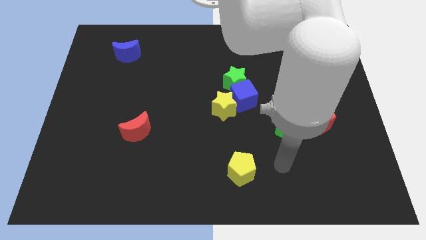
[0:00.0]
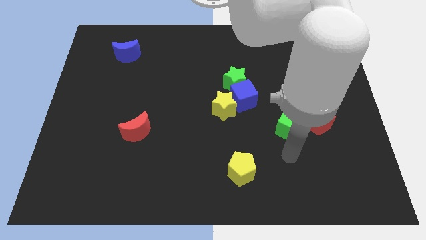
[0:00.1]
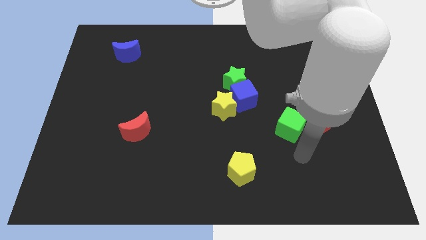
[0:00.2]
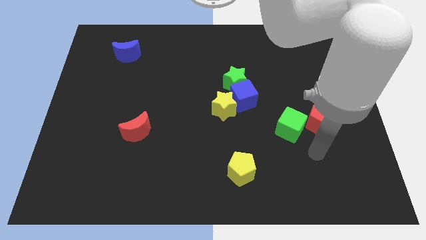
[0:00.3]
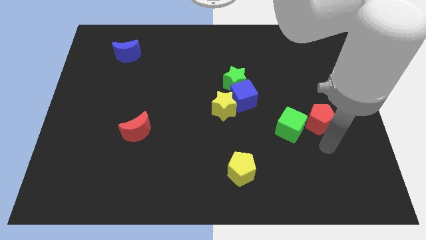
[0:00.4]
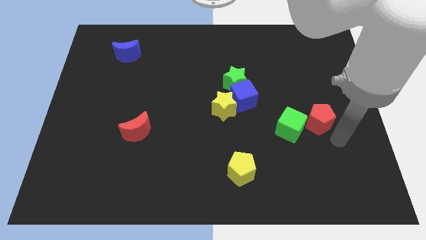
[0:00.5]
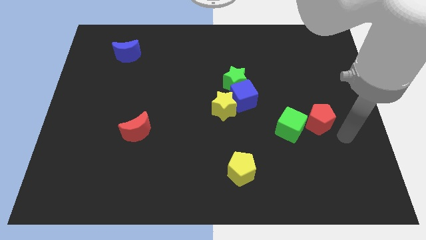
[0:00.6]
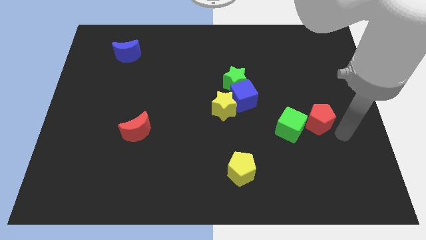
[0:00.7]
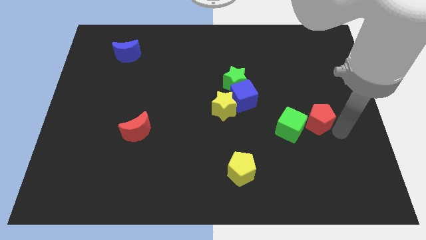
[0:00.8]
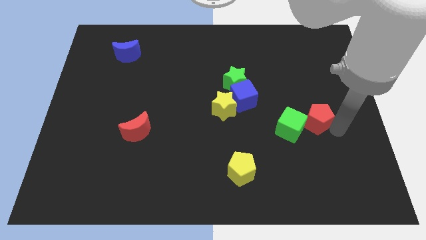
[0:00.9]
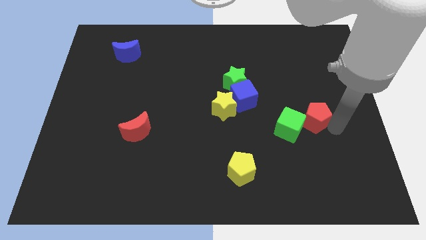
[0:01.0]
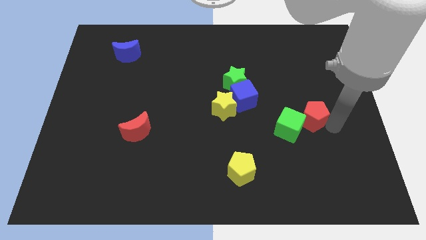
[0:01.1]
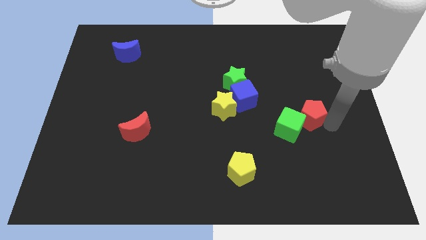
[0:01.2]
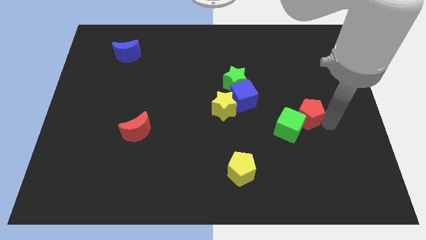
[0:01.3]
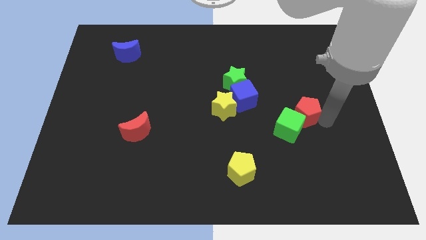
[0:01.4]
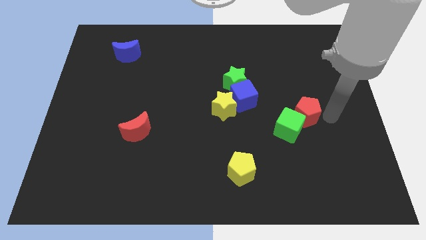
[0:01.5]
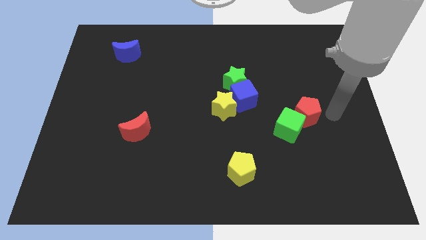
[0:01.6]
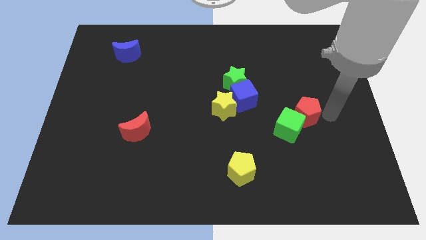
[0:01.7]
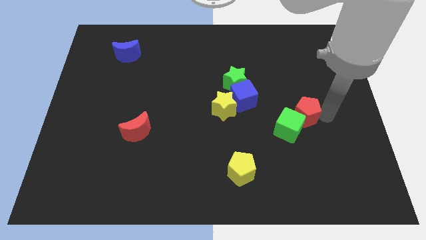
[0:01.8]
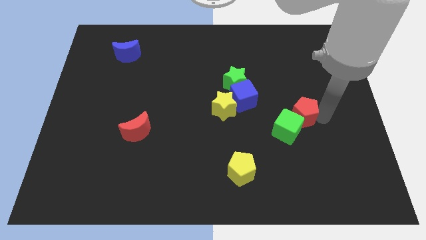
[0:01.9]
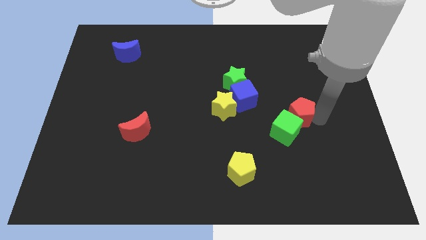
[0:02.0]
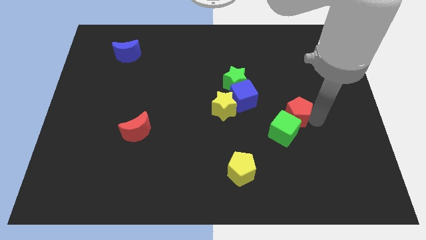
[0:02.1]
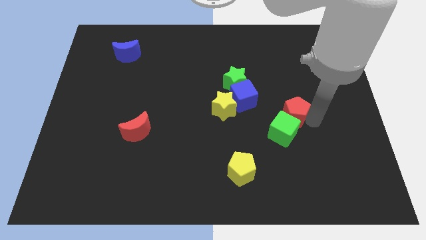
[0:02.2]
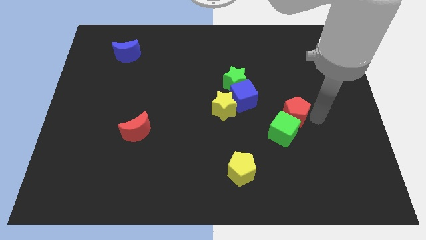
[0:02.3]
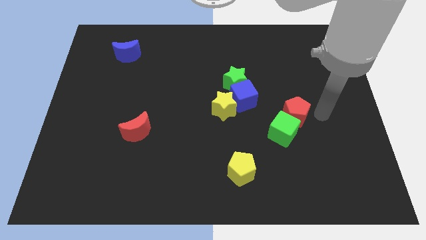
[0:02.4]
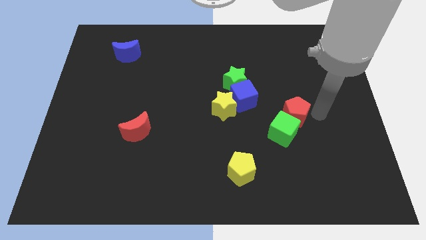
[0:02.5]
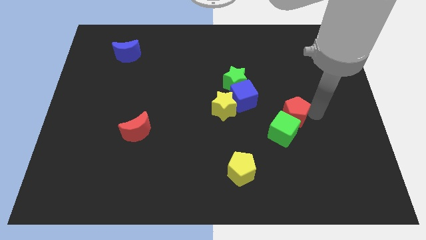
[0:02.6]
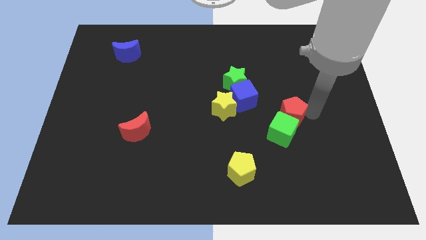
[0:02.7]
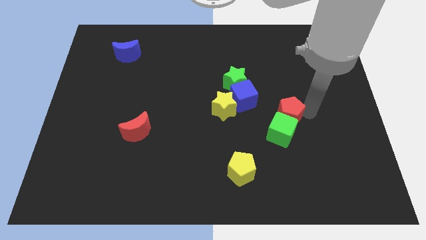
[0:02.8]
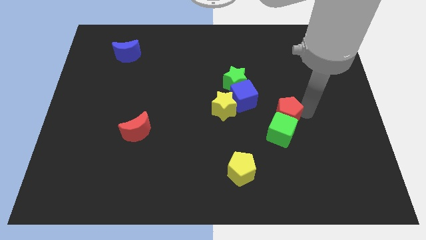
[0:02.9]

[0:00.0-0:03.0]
move the red pentagon a little bit left

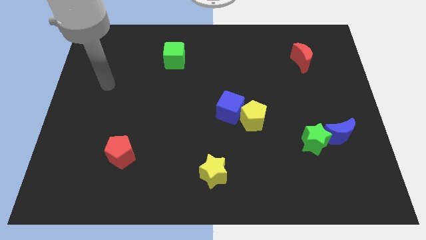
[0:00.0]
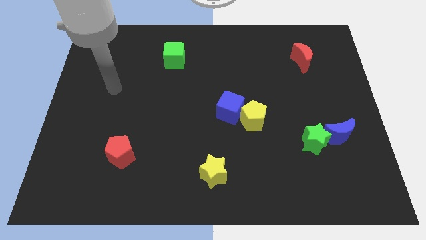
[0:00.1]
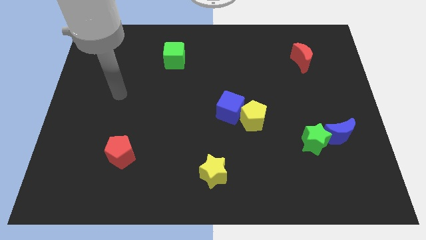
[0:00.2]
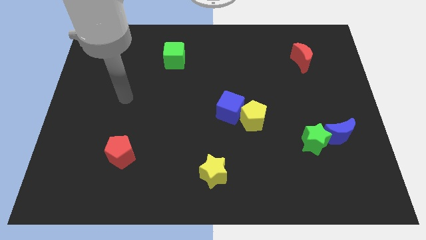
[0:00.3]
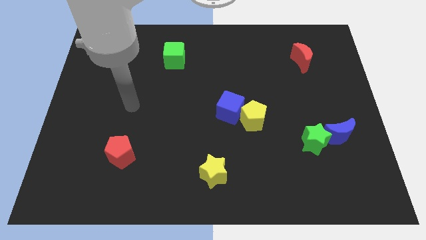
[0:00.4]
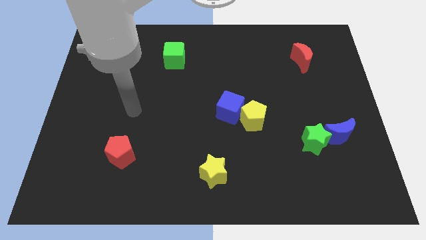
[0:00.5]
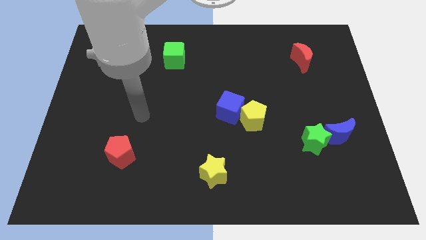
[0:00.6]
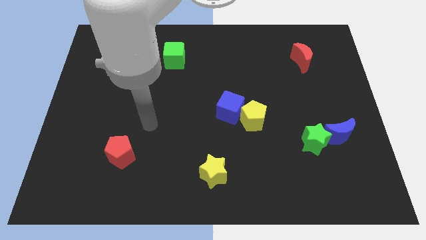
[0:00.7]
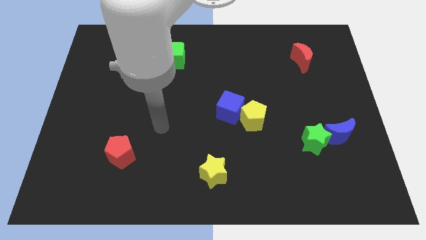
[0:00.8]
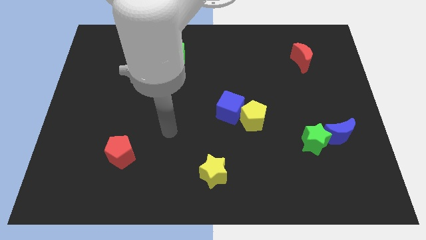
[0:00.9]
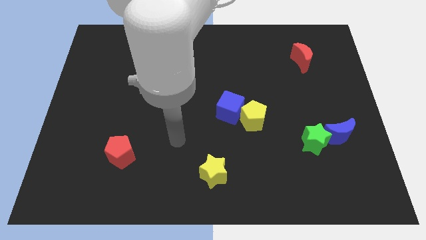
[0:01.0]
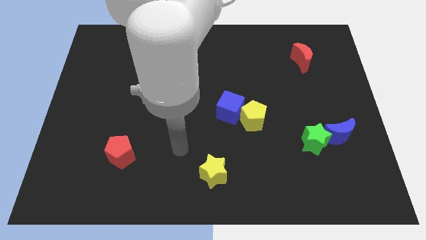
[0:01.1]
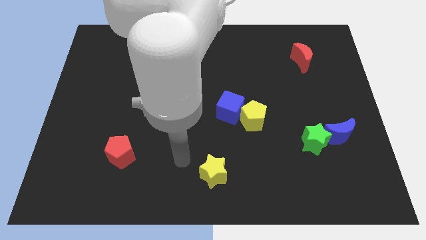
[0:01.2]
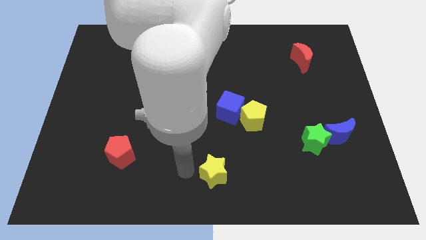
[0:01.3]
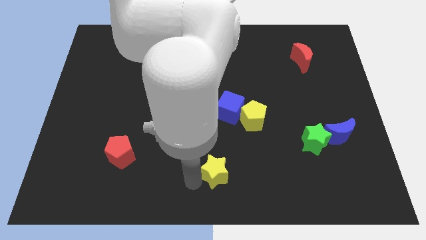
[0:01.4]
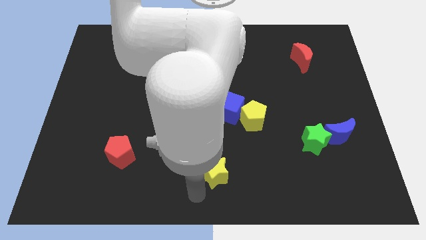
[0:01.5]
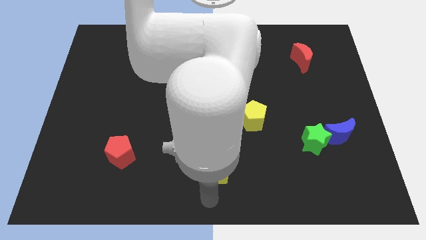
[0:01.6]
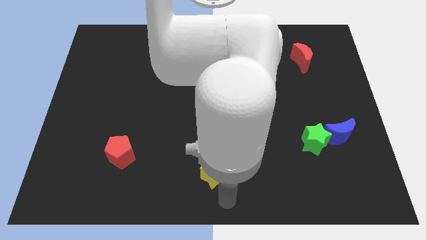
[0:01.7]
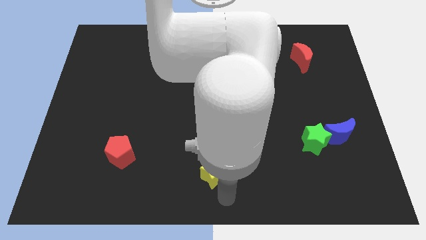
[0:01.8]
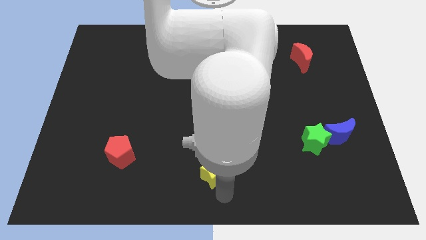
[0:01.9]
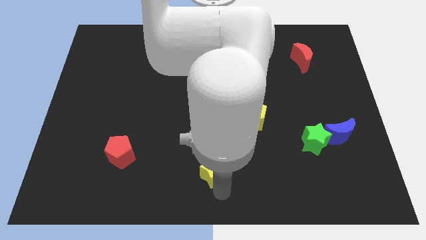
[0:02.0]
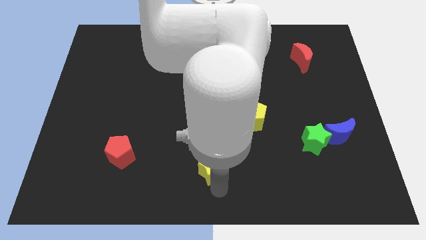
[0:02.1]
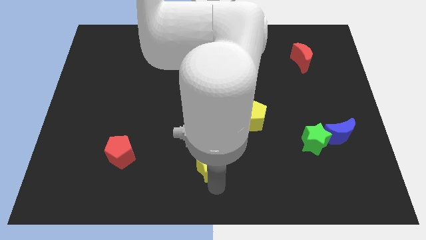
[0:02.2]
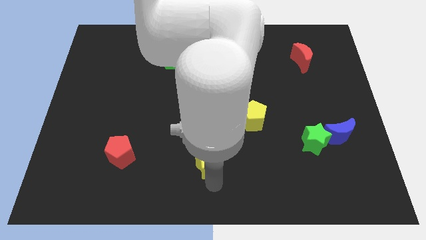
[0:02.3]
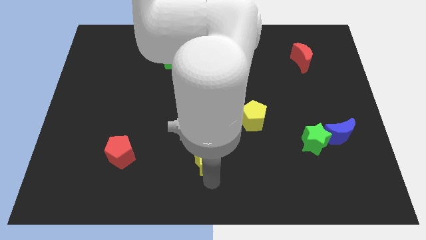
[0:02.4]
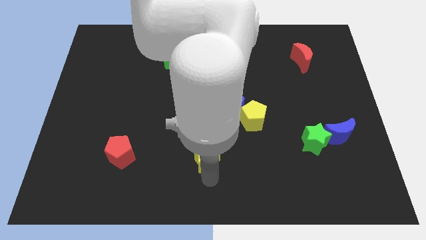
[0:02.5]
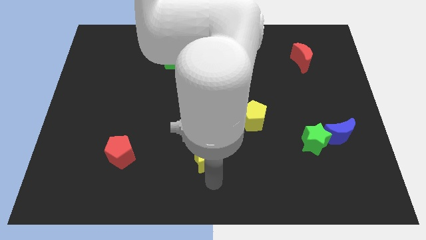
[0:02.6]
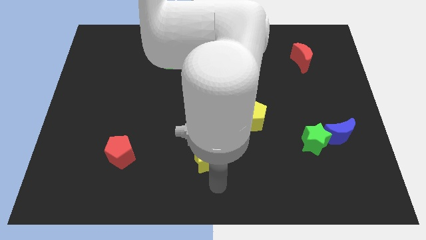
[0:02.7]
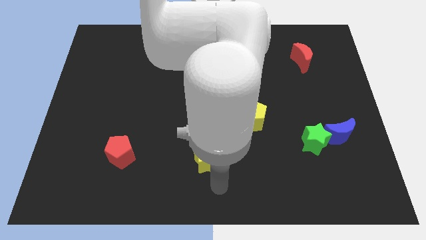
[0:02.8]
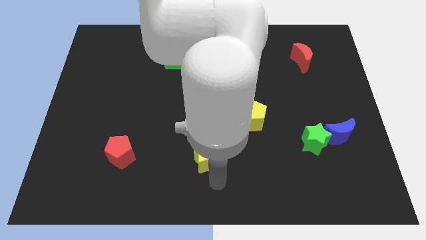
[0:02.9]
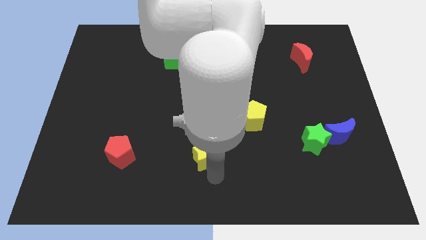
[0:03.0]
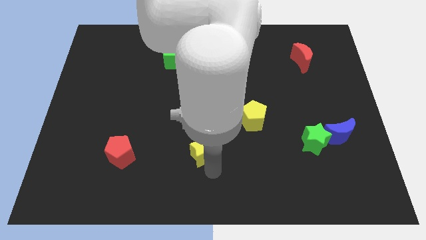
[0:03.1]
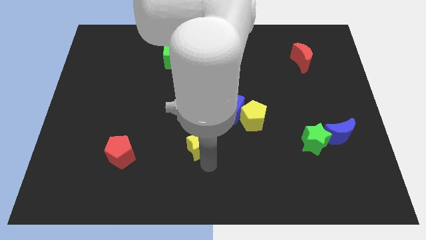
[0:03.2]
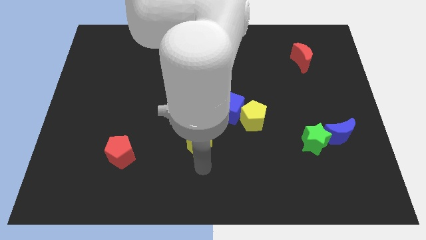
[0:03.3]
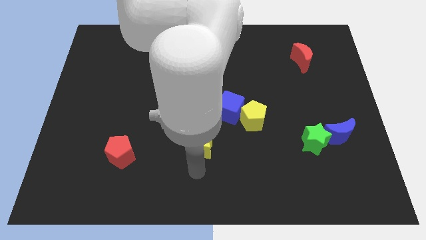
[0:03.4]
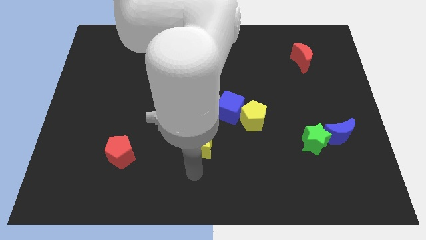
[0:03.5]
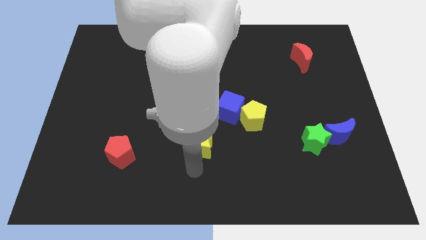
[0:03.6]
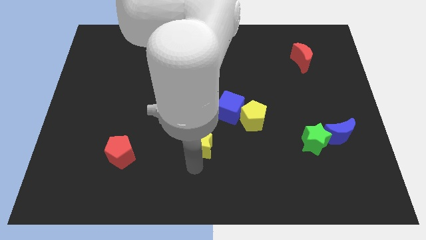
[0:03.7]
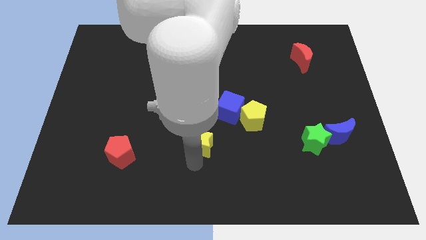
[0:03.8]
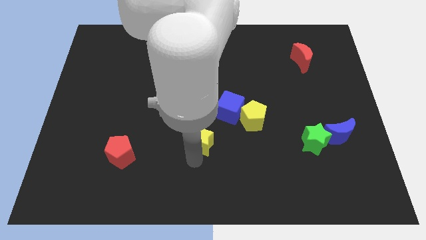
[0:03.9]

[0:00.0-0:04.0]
slightly push the yellow star up

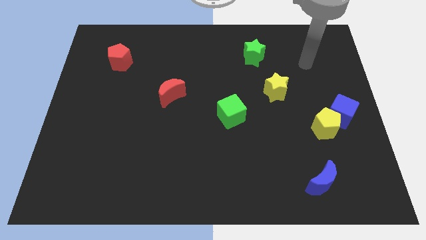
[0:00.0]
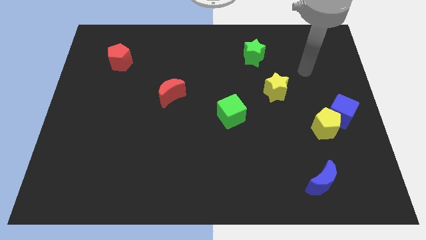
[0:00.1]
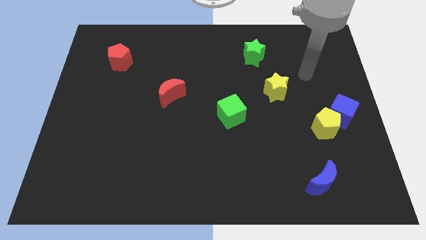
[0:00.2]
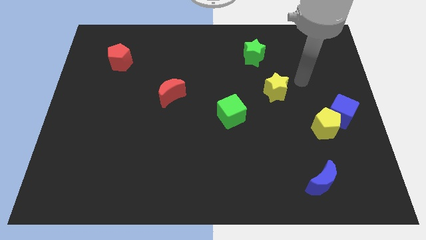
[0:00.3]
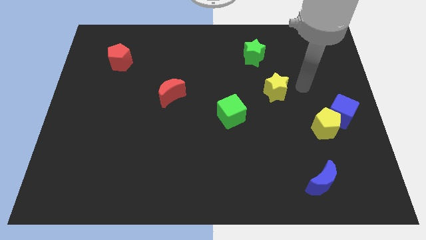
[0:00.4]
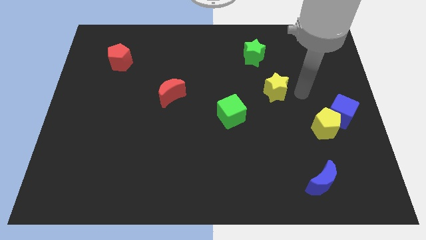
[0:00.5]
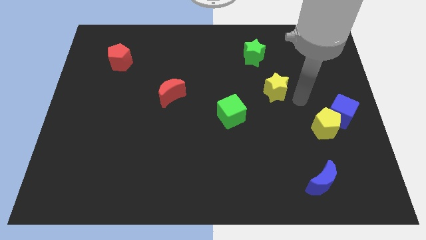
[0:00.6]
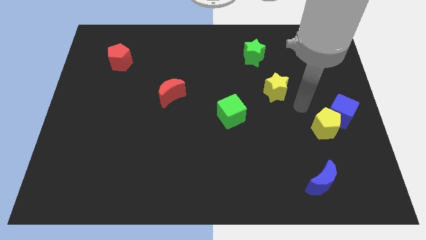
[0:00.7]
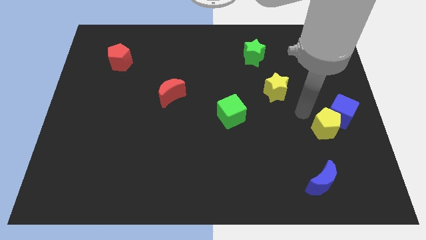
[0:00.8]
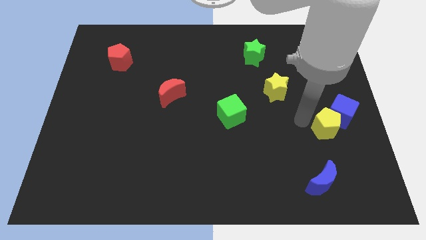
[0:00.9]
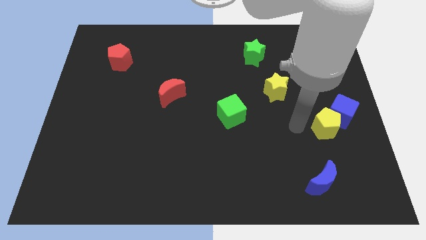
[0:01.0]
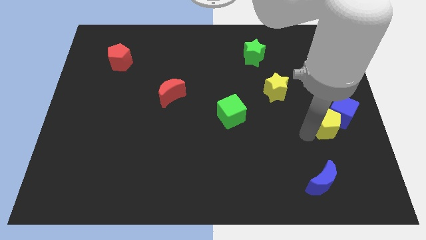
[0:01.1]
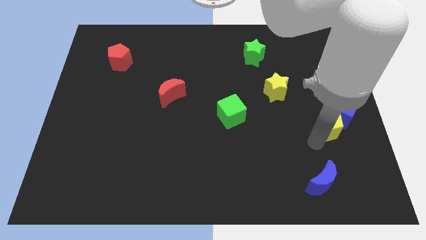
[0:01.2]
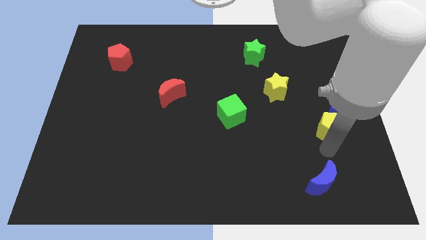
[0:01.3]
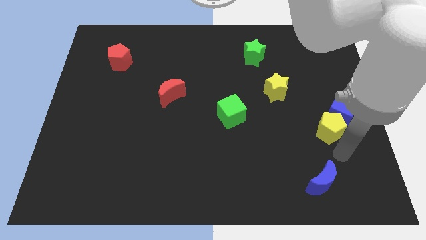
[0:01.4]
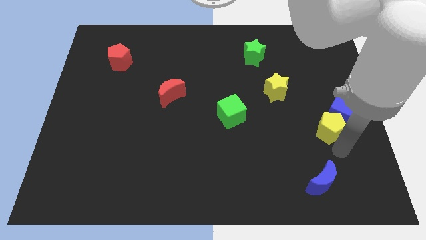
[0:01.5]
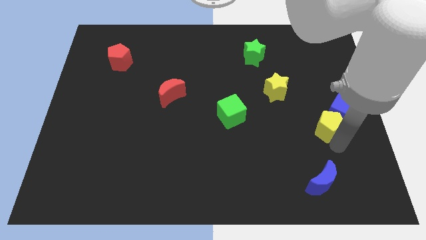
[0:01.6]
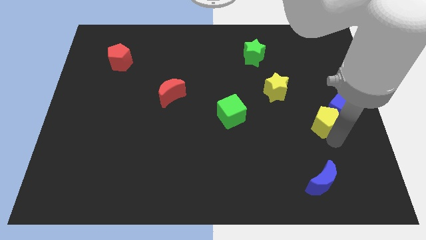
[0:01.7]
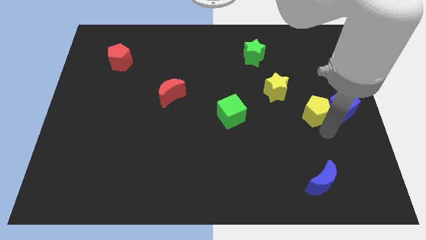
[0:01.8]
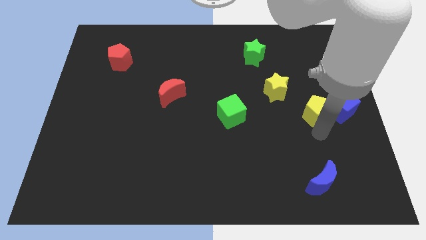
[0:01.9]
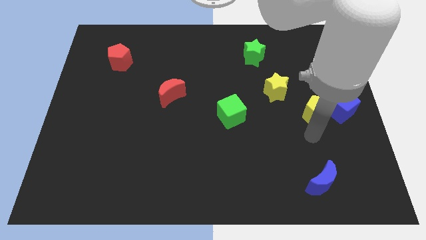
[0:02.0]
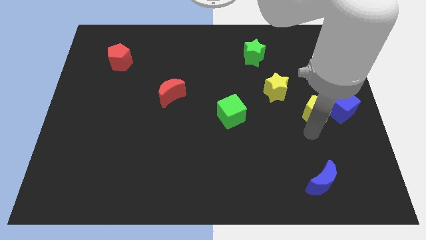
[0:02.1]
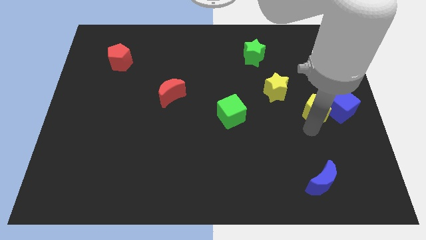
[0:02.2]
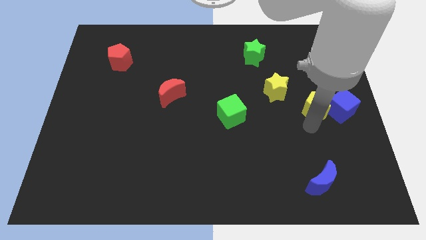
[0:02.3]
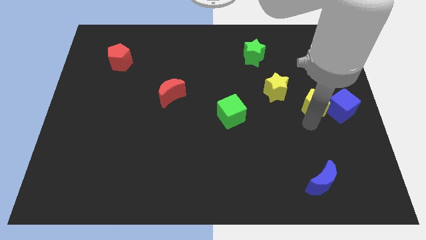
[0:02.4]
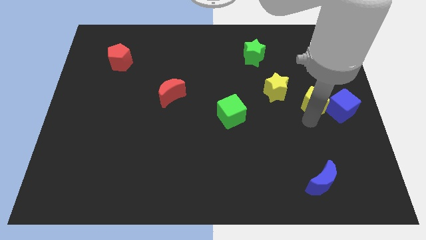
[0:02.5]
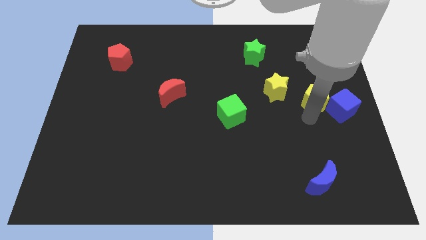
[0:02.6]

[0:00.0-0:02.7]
push the yellow pentagon upwards a little
